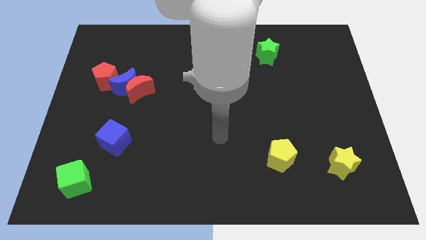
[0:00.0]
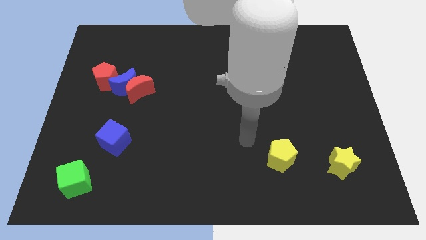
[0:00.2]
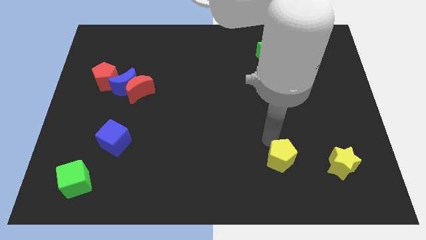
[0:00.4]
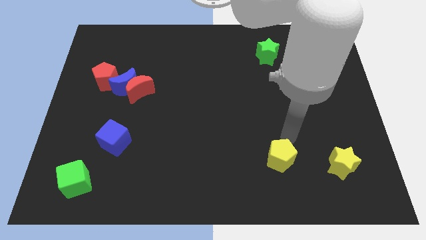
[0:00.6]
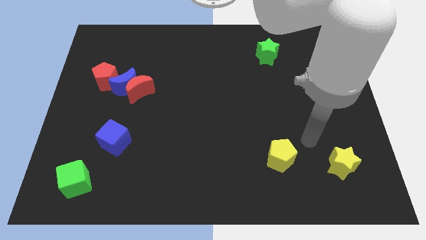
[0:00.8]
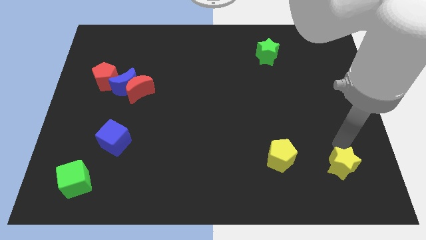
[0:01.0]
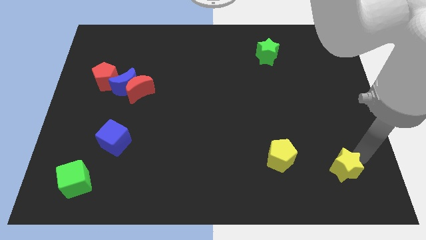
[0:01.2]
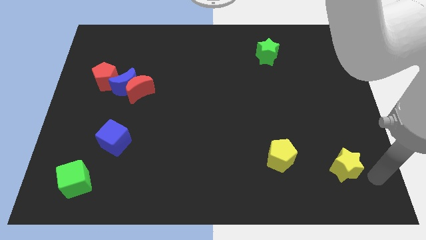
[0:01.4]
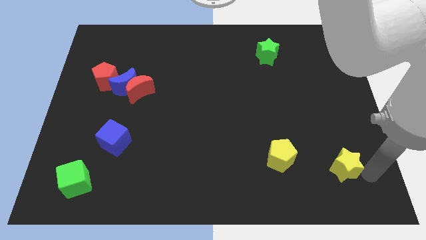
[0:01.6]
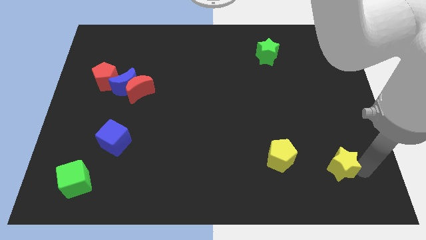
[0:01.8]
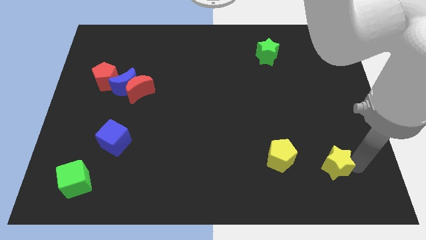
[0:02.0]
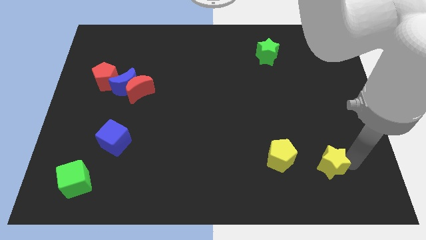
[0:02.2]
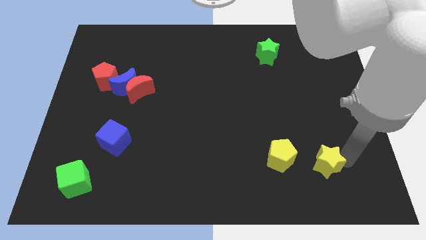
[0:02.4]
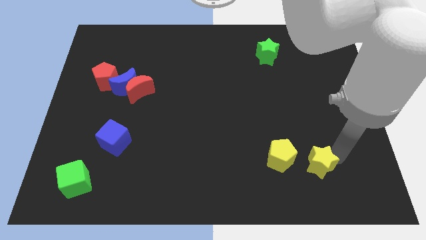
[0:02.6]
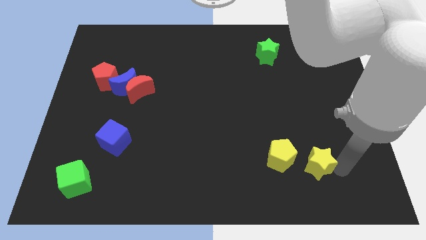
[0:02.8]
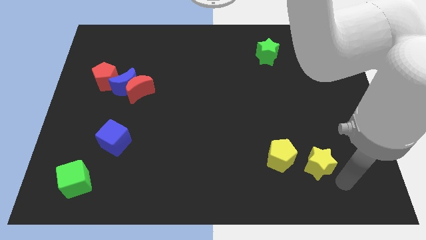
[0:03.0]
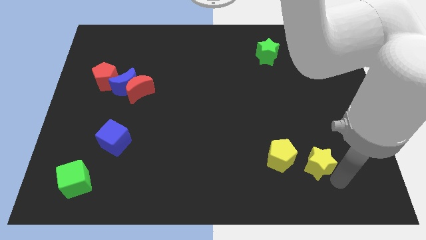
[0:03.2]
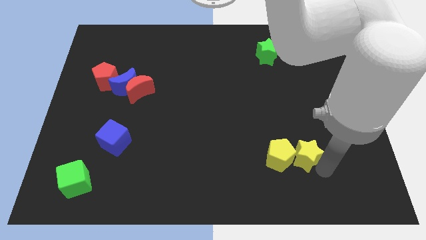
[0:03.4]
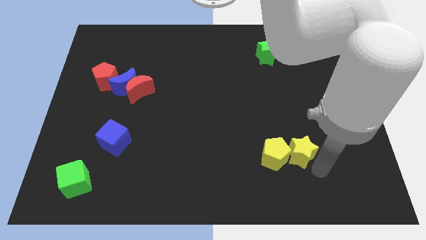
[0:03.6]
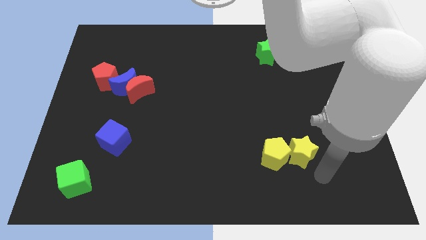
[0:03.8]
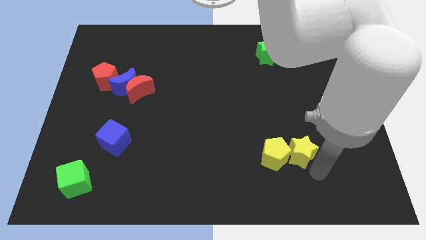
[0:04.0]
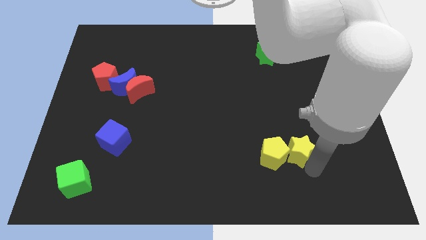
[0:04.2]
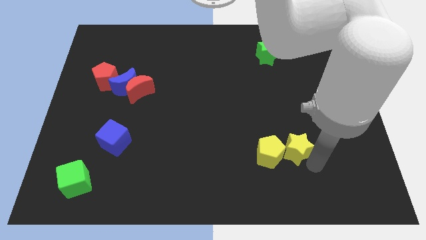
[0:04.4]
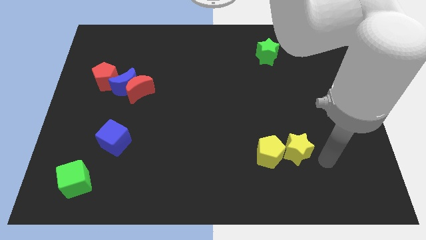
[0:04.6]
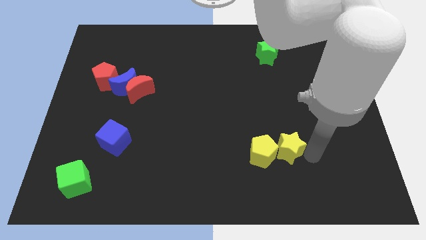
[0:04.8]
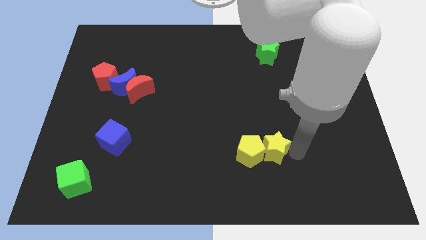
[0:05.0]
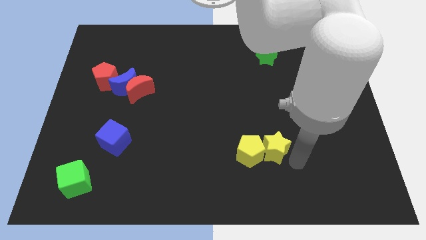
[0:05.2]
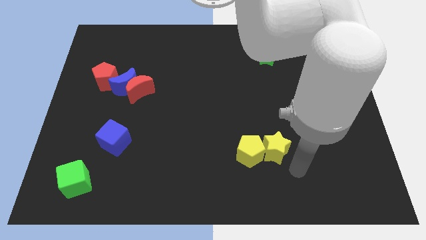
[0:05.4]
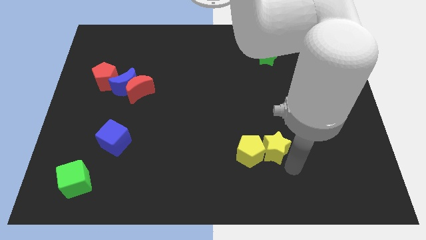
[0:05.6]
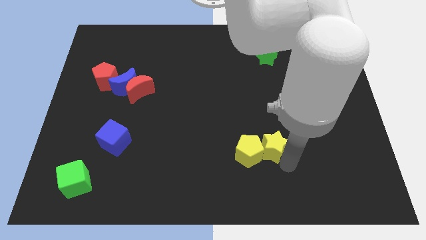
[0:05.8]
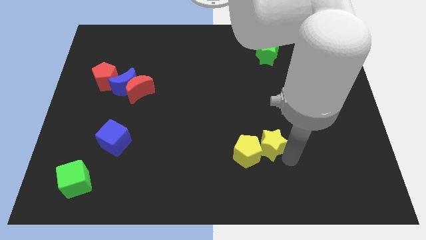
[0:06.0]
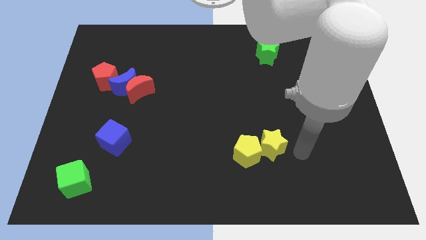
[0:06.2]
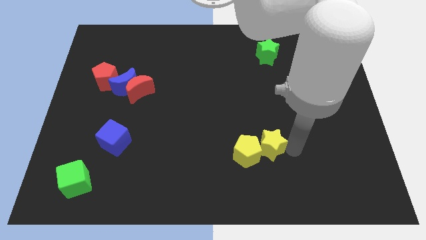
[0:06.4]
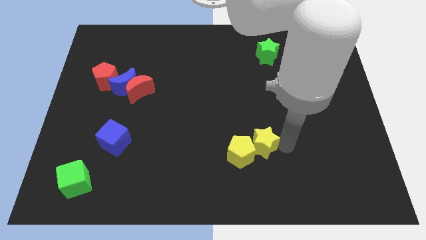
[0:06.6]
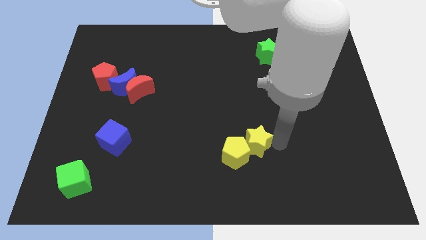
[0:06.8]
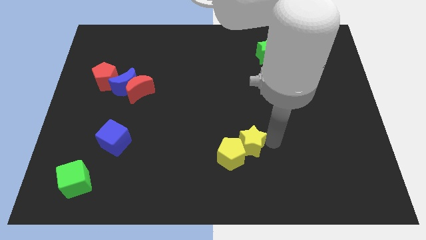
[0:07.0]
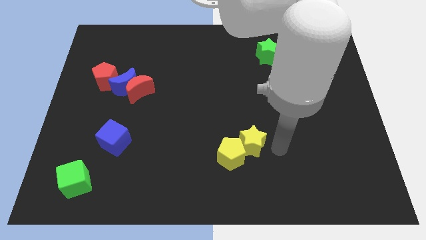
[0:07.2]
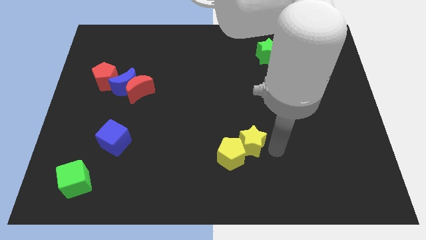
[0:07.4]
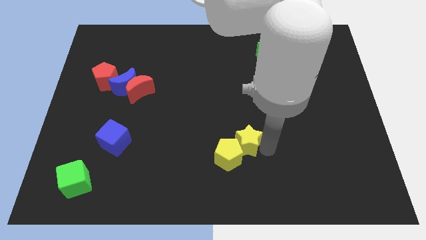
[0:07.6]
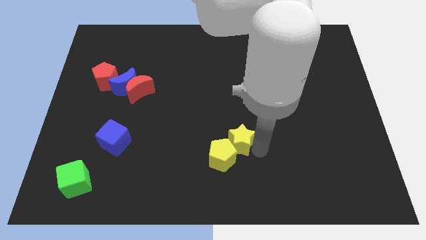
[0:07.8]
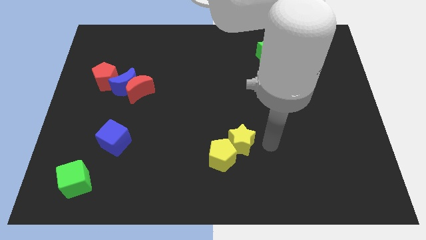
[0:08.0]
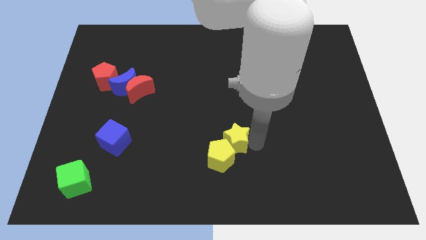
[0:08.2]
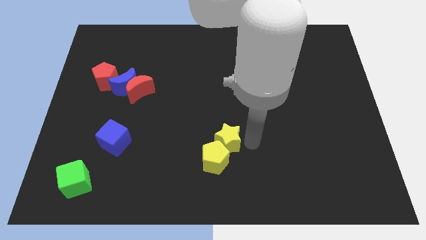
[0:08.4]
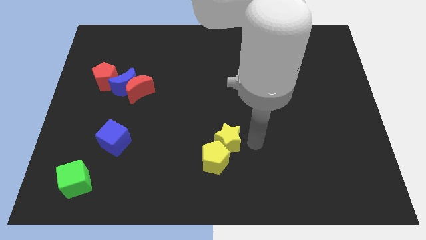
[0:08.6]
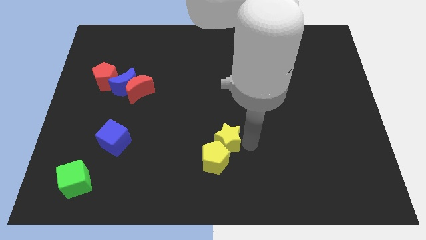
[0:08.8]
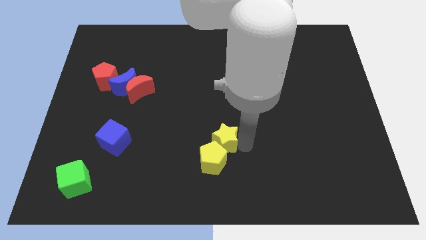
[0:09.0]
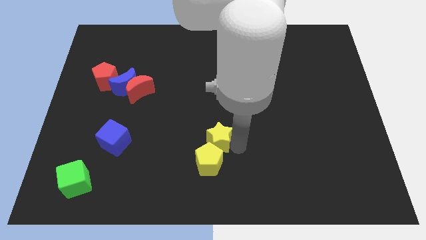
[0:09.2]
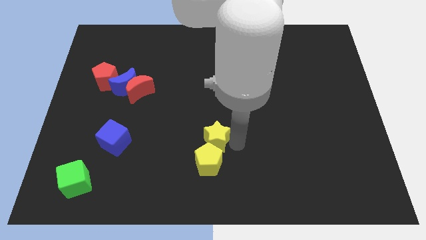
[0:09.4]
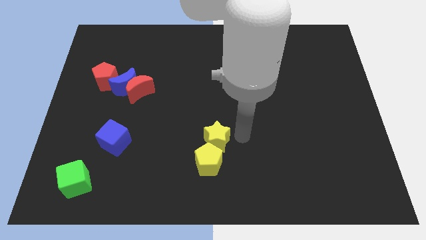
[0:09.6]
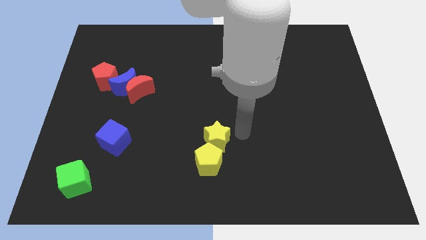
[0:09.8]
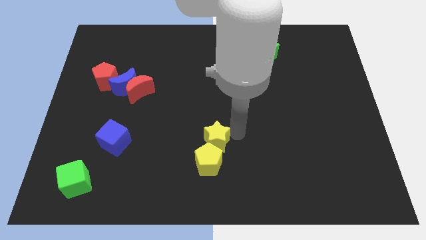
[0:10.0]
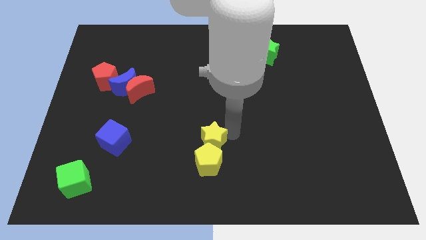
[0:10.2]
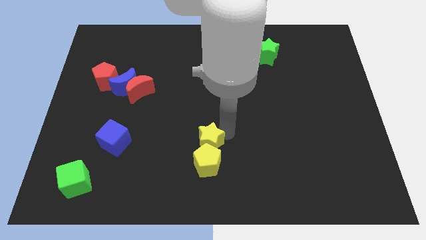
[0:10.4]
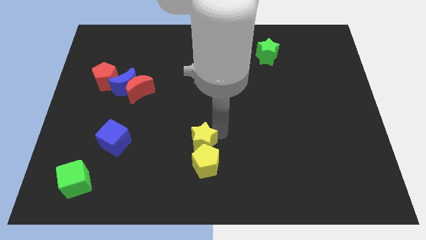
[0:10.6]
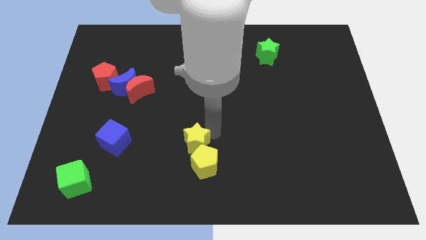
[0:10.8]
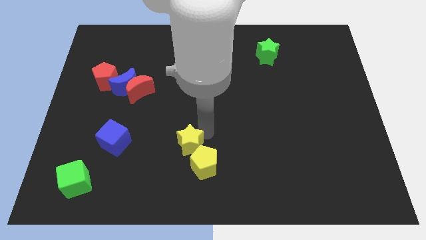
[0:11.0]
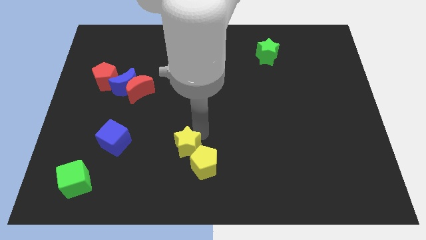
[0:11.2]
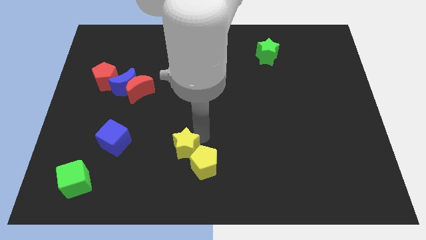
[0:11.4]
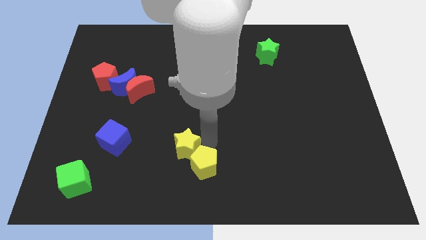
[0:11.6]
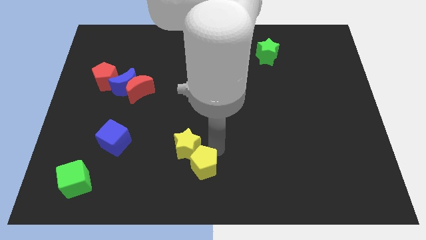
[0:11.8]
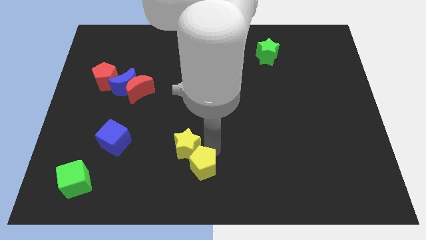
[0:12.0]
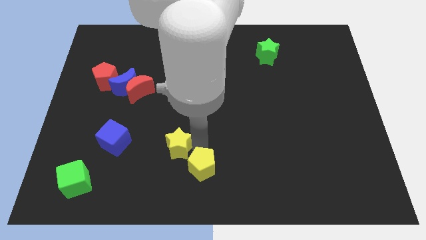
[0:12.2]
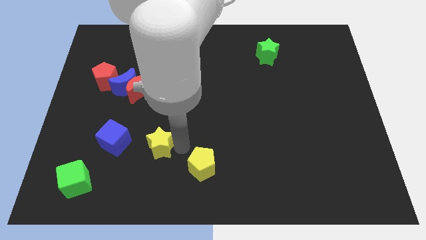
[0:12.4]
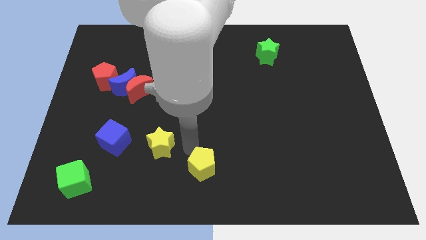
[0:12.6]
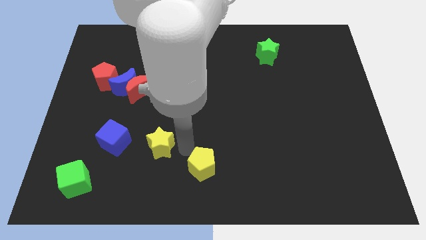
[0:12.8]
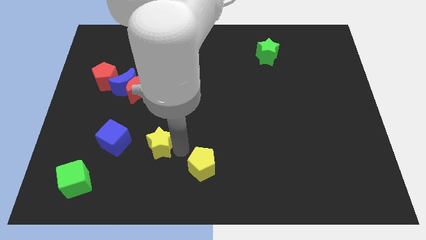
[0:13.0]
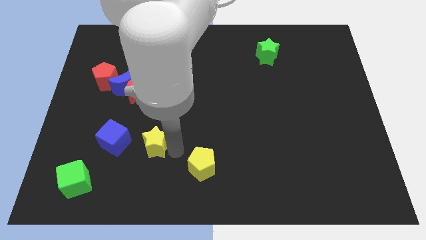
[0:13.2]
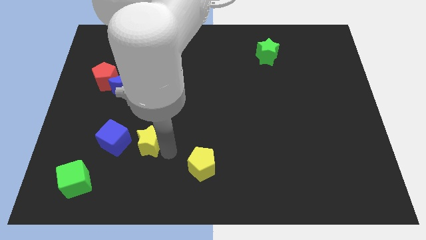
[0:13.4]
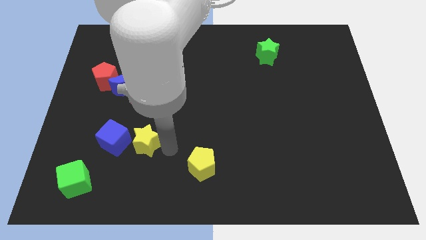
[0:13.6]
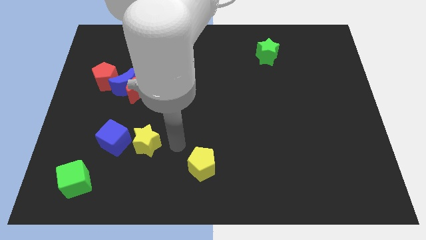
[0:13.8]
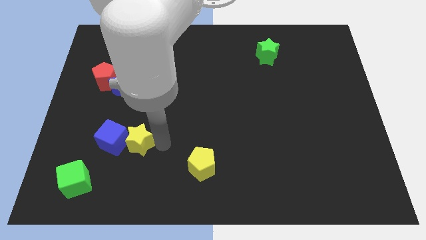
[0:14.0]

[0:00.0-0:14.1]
push the yellow star next to the blue cube

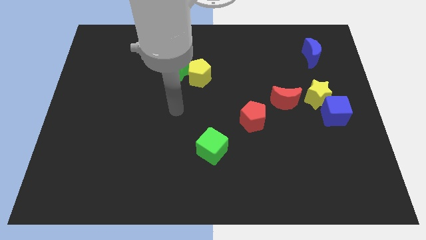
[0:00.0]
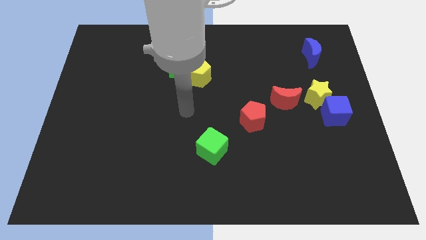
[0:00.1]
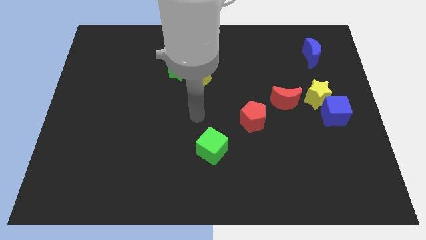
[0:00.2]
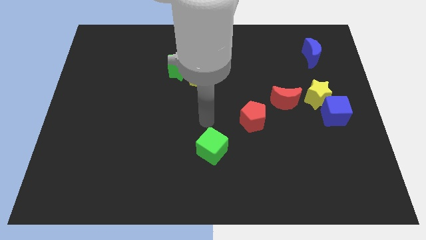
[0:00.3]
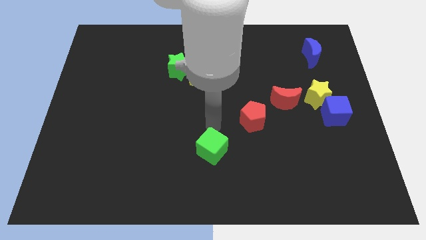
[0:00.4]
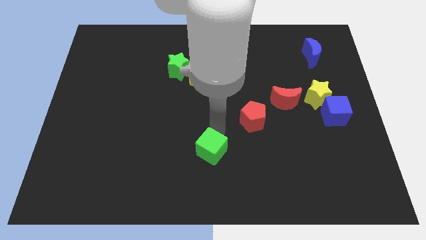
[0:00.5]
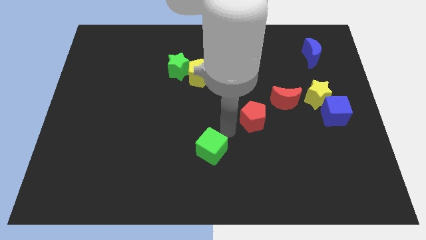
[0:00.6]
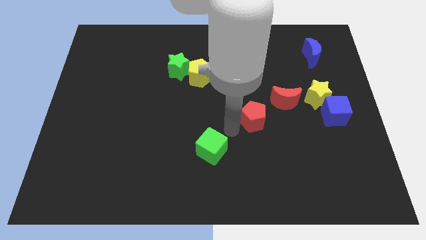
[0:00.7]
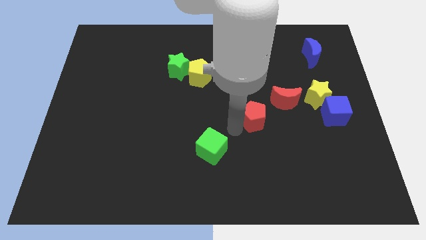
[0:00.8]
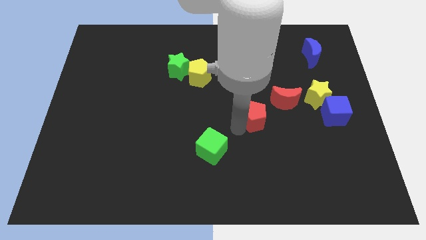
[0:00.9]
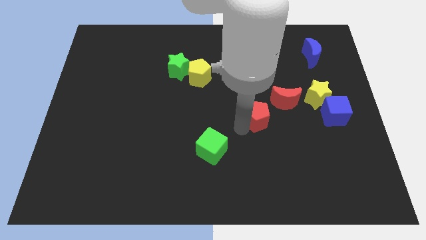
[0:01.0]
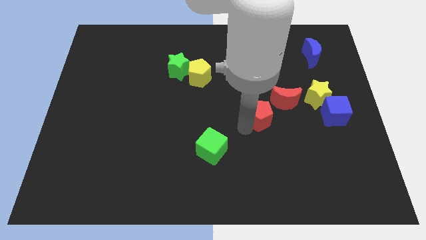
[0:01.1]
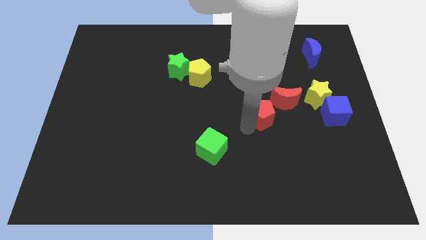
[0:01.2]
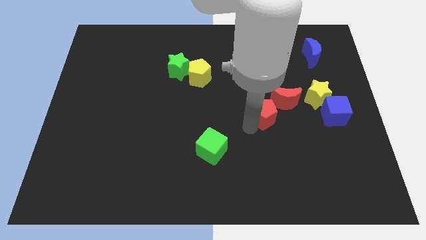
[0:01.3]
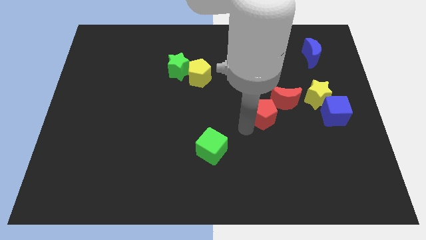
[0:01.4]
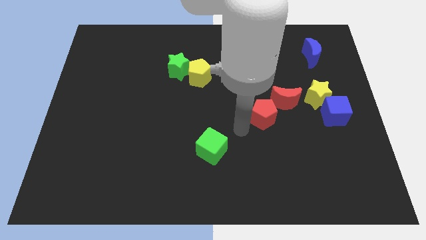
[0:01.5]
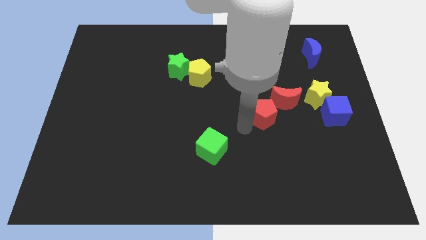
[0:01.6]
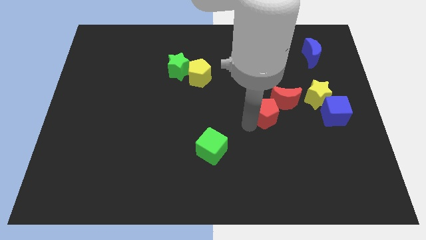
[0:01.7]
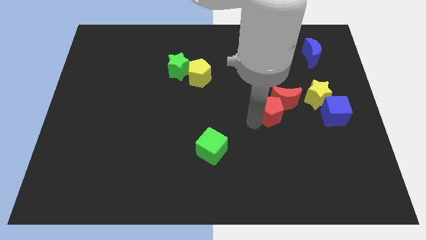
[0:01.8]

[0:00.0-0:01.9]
put the red pentagon towards the red moon
